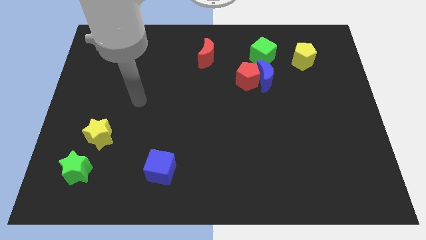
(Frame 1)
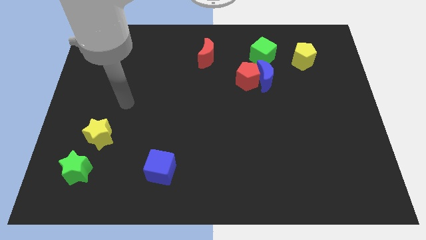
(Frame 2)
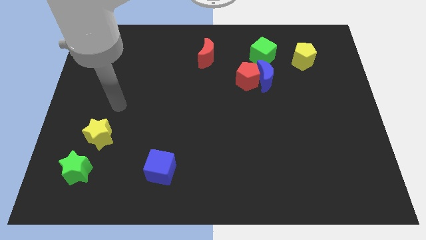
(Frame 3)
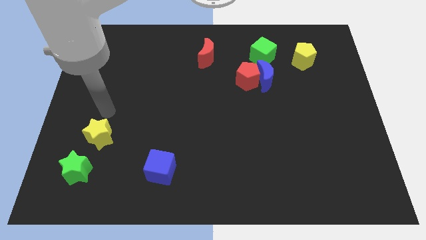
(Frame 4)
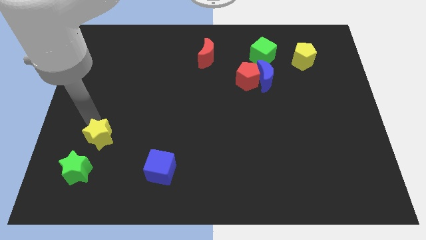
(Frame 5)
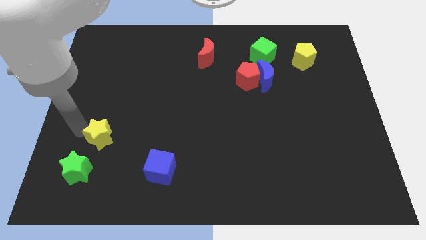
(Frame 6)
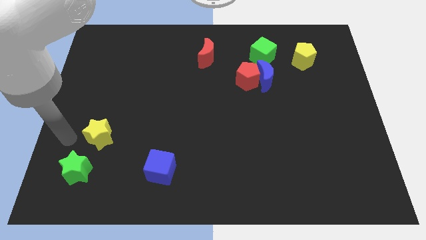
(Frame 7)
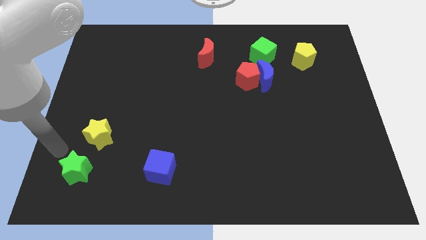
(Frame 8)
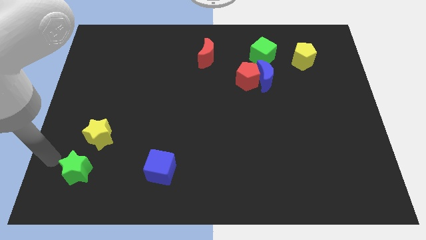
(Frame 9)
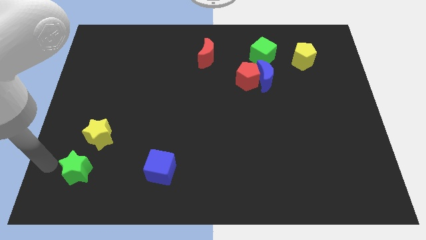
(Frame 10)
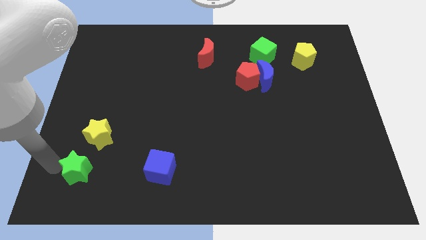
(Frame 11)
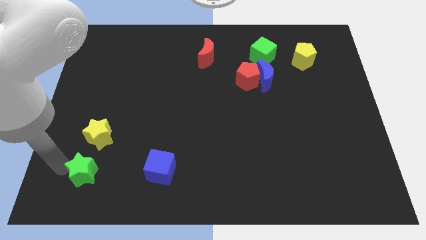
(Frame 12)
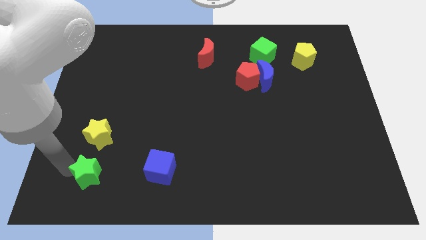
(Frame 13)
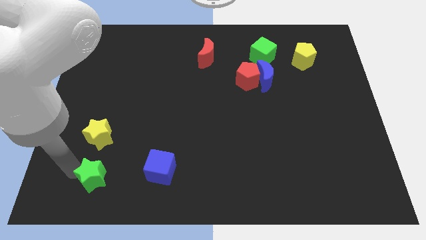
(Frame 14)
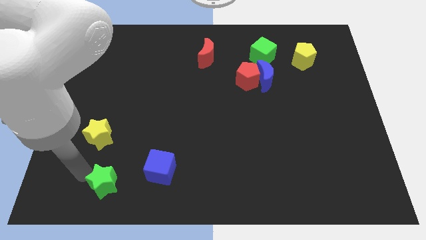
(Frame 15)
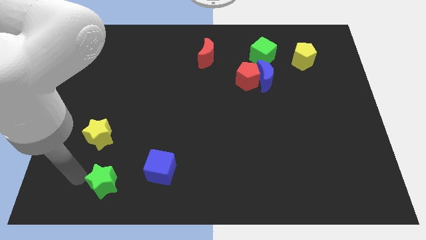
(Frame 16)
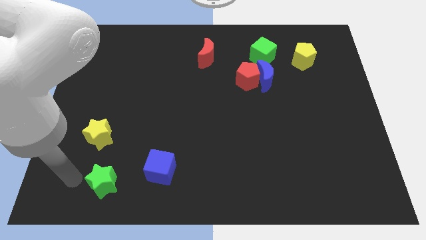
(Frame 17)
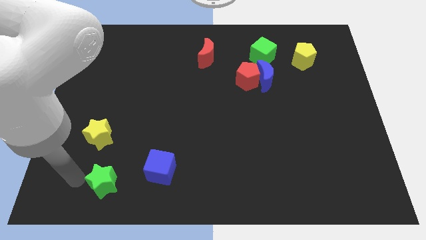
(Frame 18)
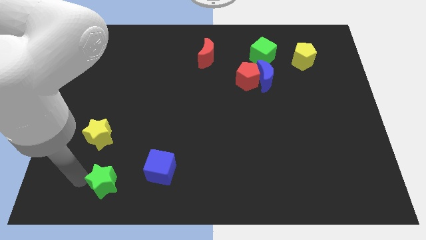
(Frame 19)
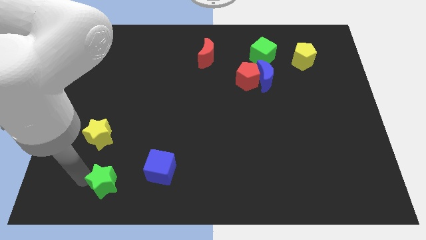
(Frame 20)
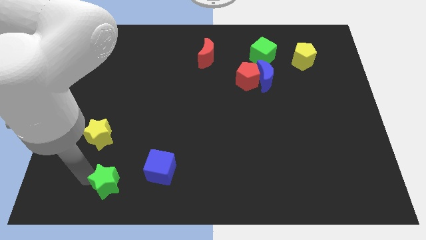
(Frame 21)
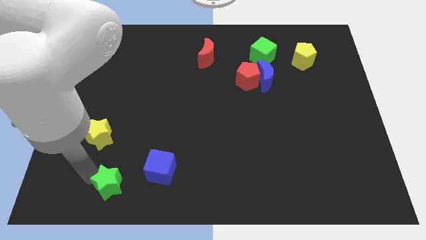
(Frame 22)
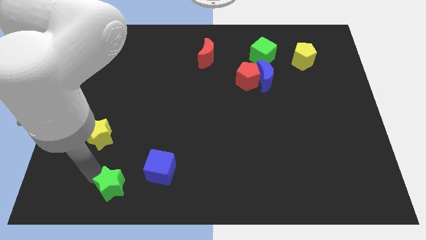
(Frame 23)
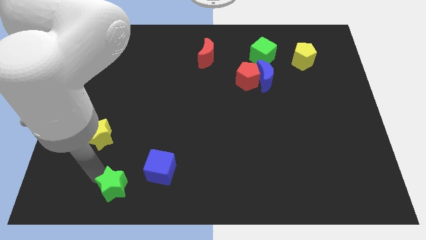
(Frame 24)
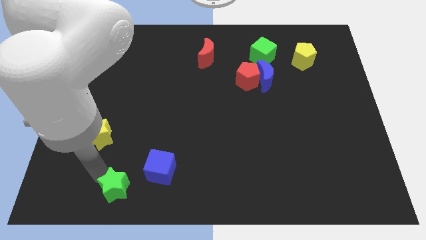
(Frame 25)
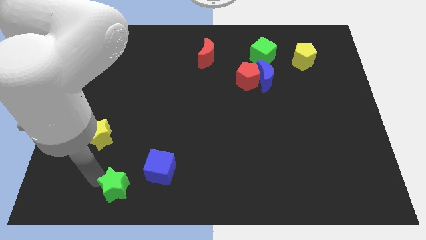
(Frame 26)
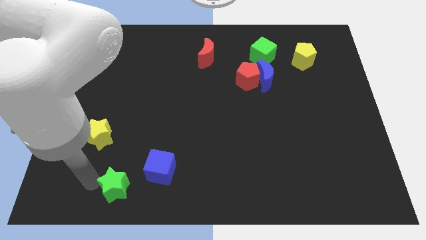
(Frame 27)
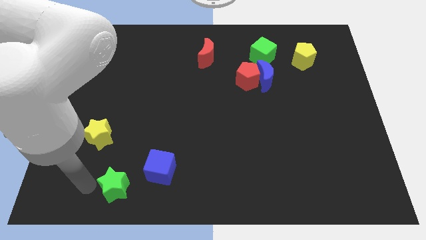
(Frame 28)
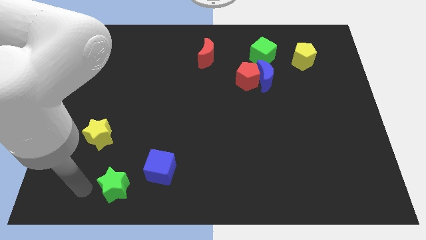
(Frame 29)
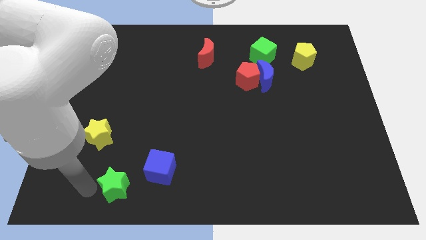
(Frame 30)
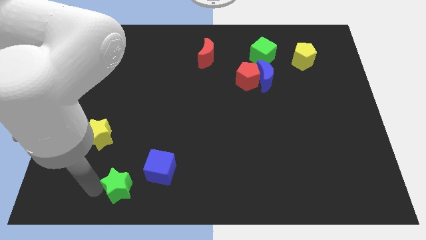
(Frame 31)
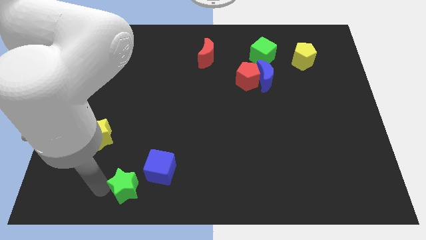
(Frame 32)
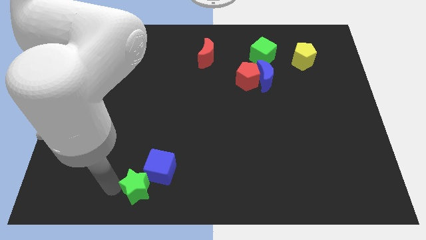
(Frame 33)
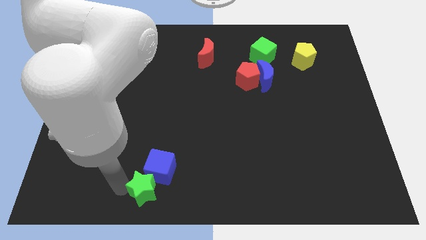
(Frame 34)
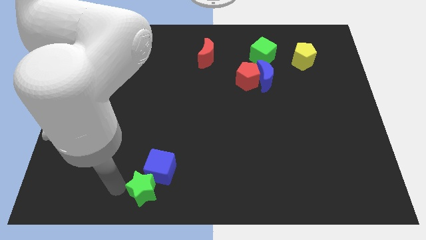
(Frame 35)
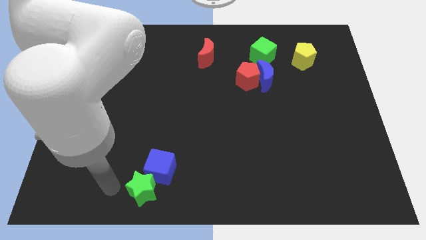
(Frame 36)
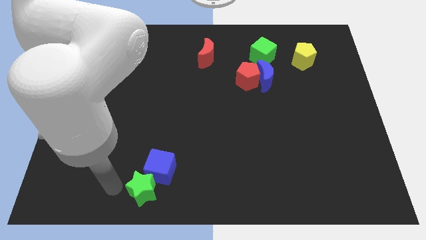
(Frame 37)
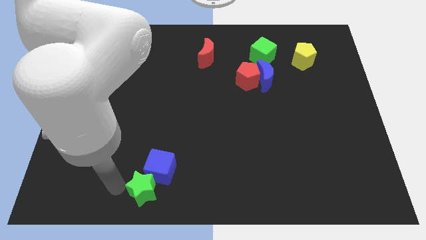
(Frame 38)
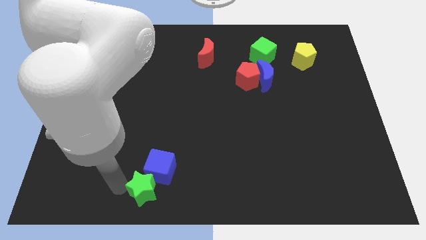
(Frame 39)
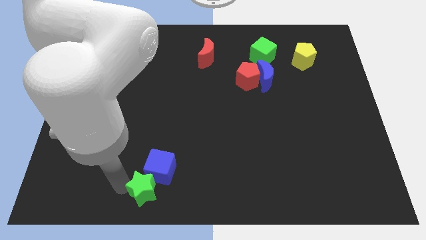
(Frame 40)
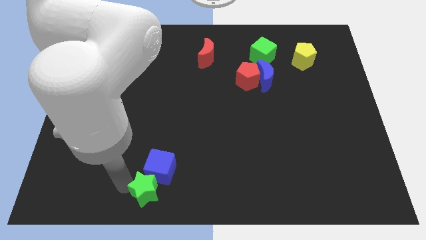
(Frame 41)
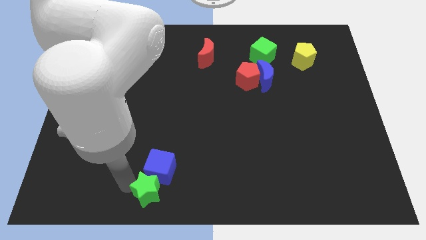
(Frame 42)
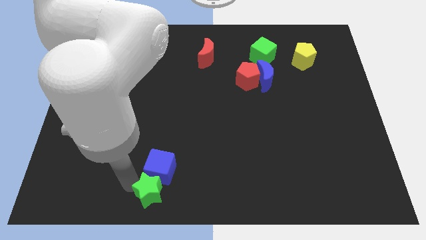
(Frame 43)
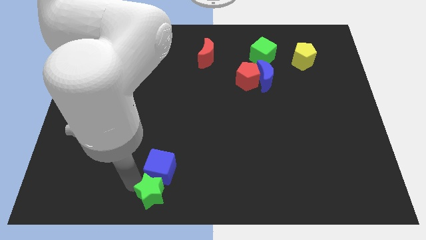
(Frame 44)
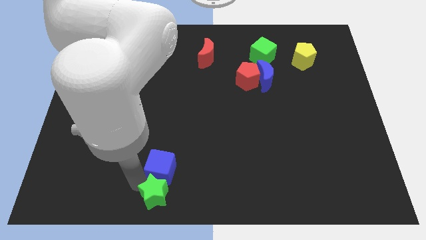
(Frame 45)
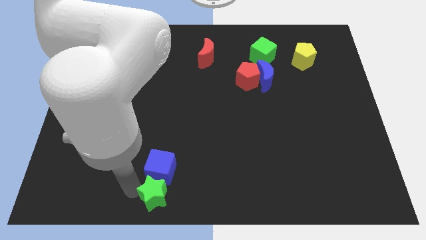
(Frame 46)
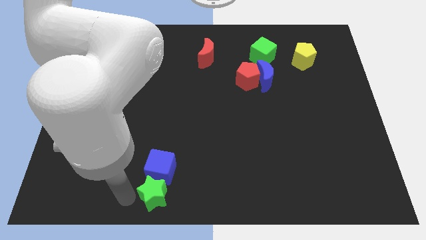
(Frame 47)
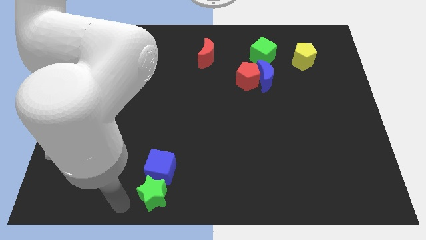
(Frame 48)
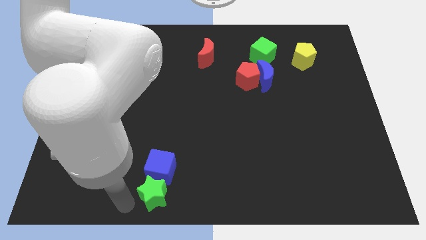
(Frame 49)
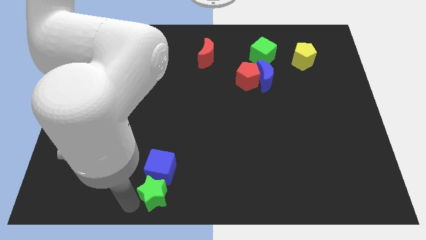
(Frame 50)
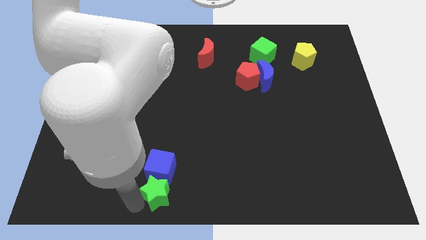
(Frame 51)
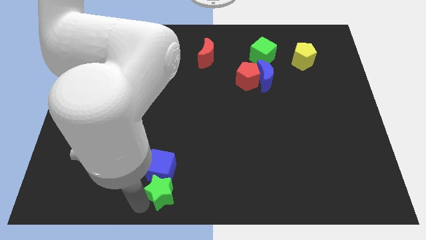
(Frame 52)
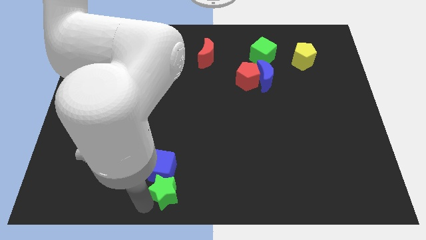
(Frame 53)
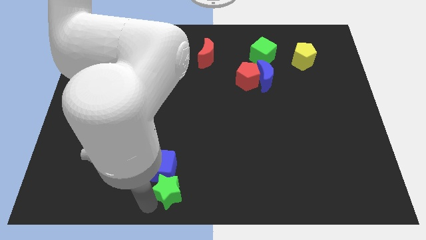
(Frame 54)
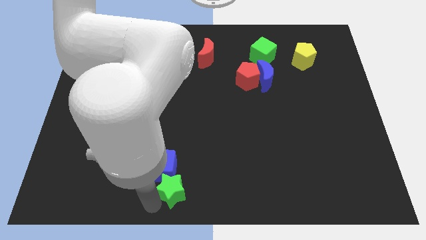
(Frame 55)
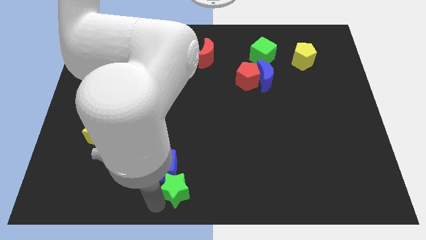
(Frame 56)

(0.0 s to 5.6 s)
slide the green star right

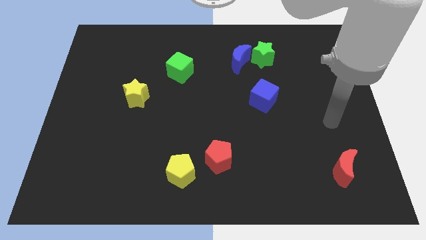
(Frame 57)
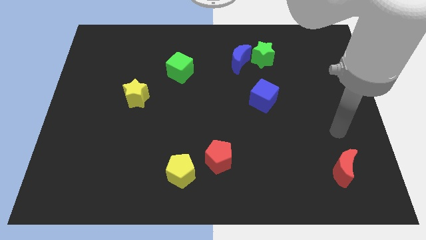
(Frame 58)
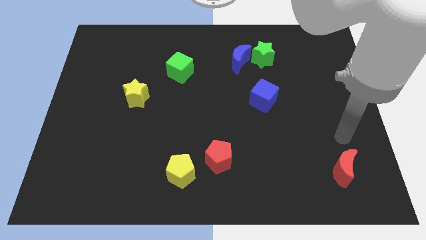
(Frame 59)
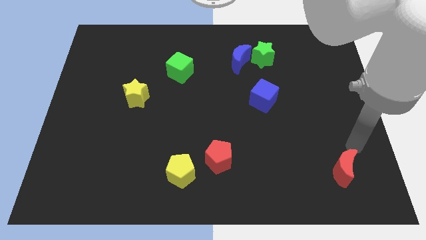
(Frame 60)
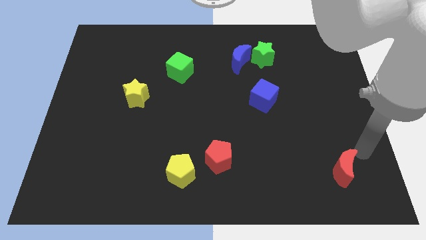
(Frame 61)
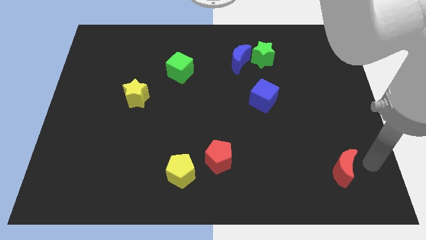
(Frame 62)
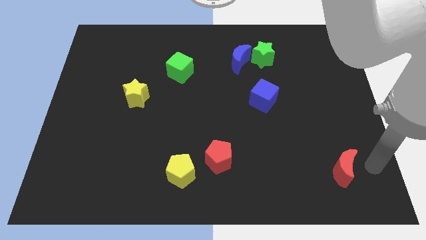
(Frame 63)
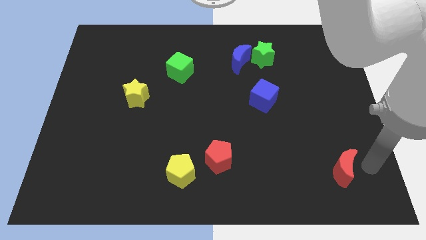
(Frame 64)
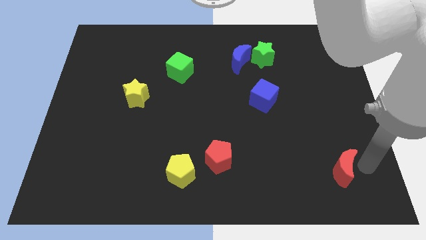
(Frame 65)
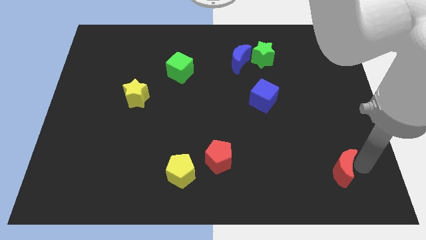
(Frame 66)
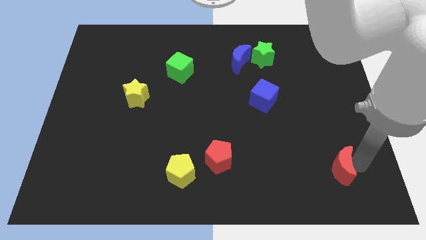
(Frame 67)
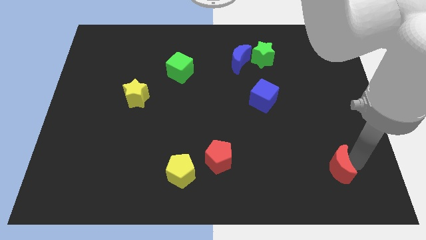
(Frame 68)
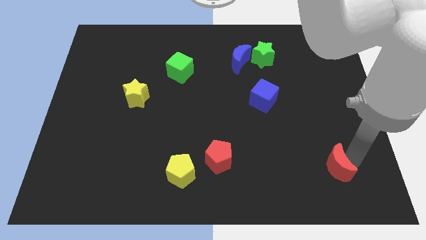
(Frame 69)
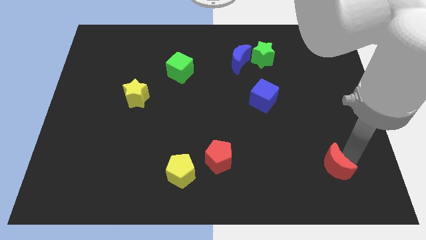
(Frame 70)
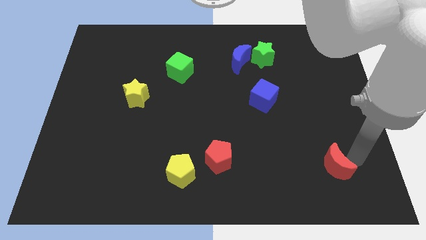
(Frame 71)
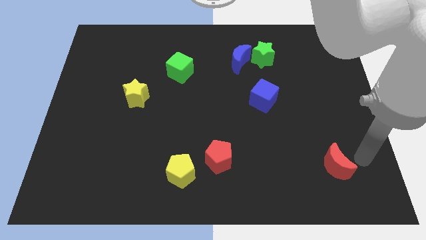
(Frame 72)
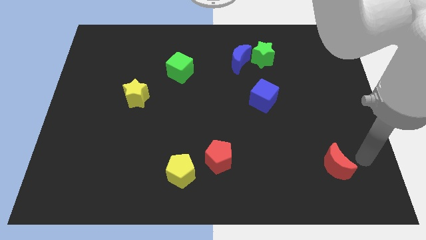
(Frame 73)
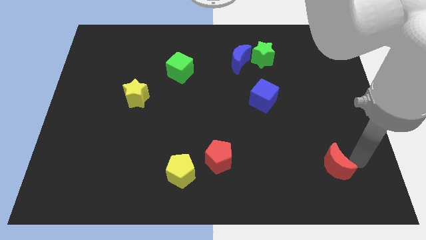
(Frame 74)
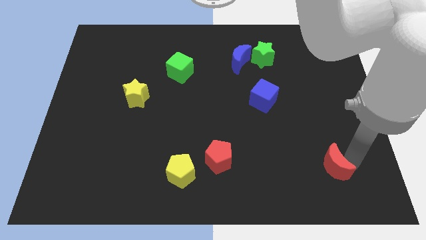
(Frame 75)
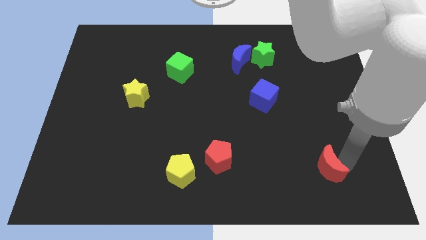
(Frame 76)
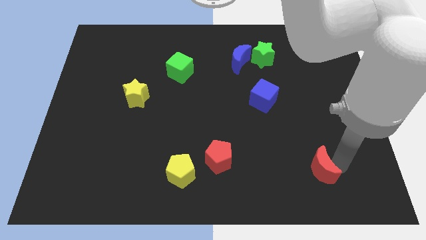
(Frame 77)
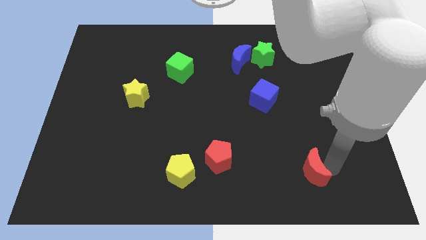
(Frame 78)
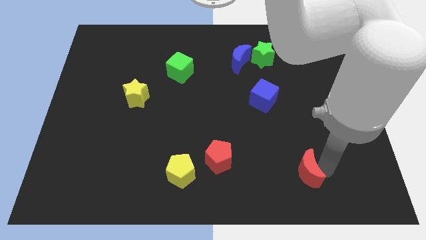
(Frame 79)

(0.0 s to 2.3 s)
push the red moon to the left a bit

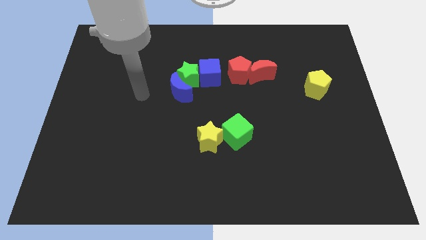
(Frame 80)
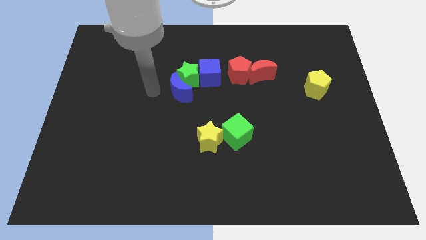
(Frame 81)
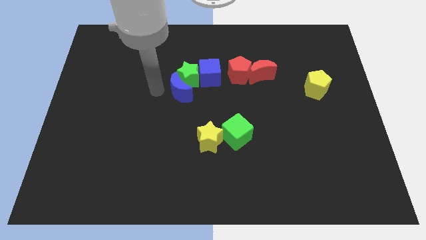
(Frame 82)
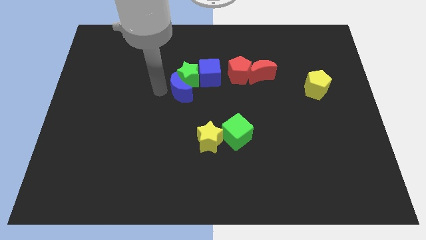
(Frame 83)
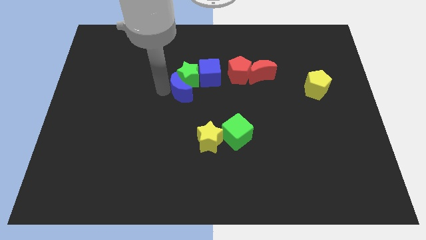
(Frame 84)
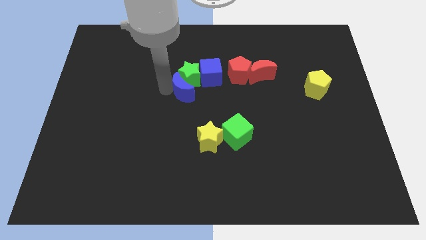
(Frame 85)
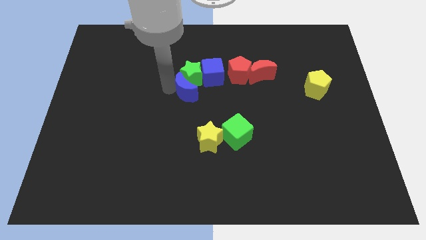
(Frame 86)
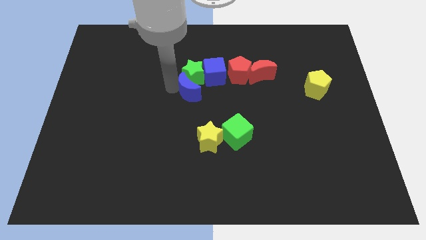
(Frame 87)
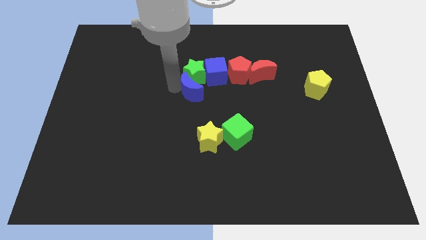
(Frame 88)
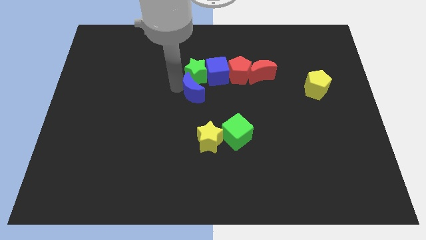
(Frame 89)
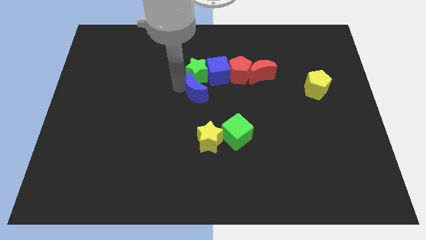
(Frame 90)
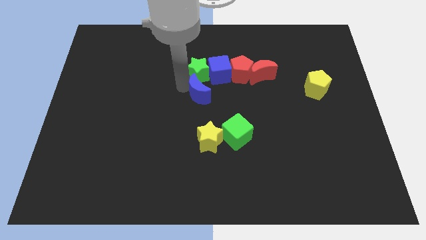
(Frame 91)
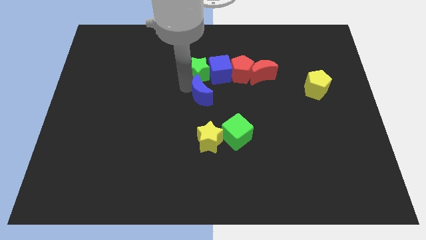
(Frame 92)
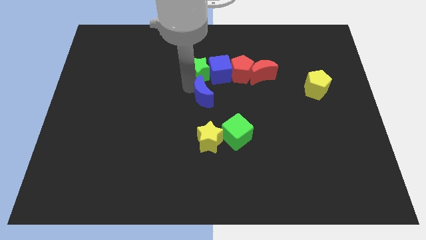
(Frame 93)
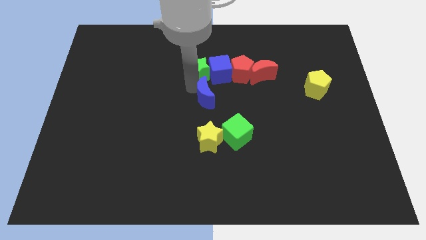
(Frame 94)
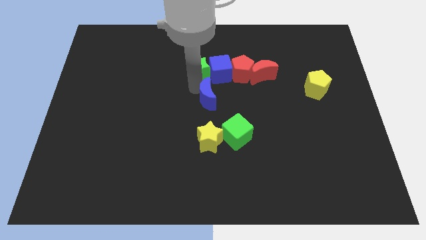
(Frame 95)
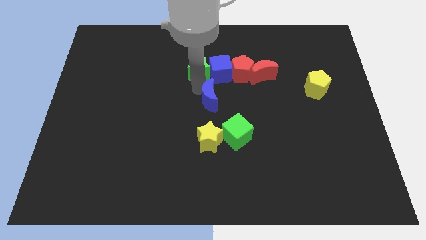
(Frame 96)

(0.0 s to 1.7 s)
slightly move the blue moon right
